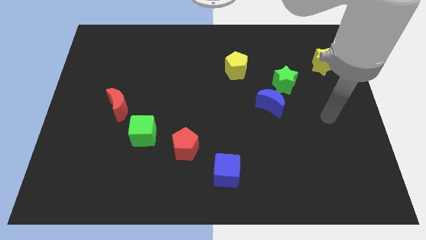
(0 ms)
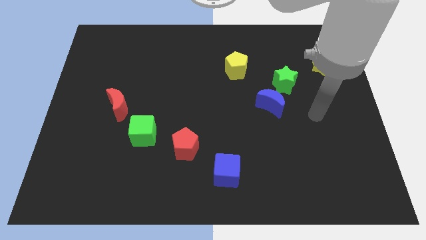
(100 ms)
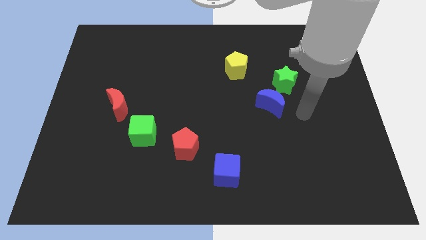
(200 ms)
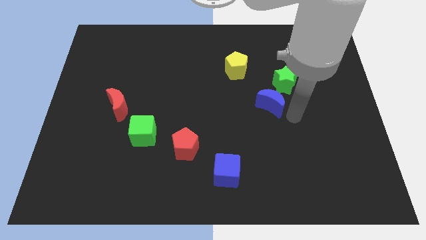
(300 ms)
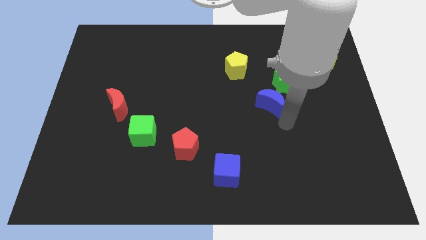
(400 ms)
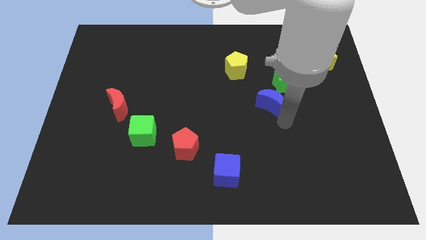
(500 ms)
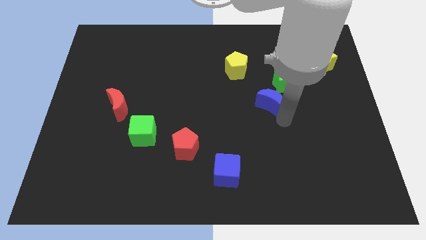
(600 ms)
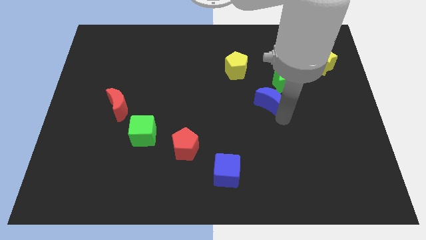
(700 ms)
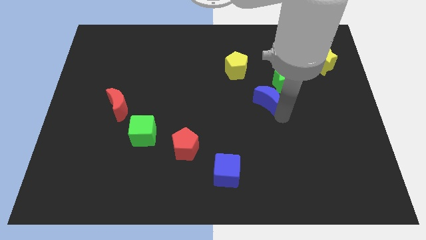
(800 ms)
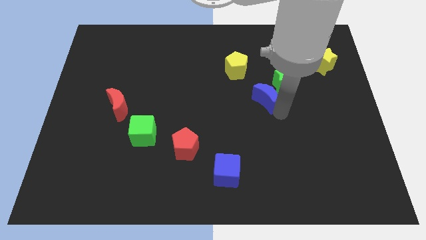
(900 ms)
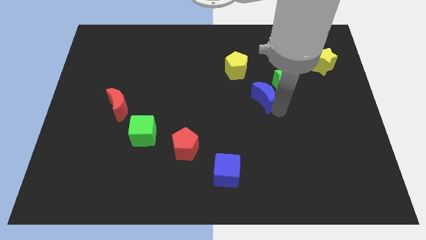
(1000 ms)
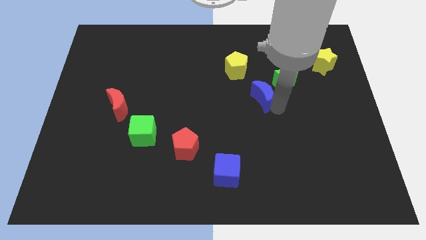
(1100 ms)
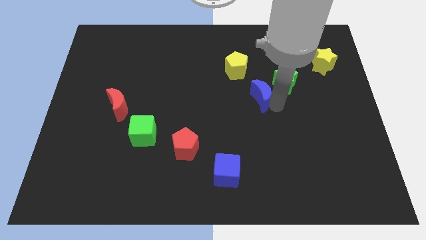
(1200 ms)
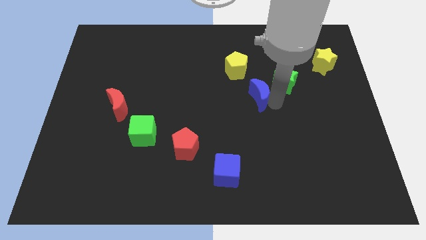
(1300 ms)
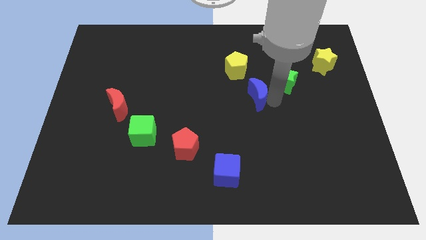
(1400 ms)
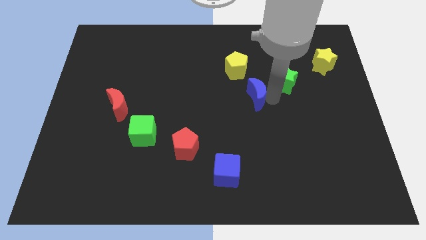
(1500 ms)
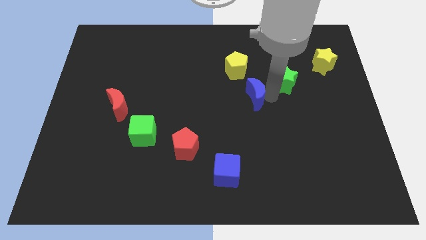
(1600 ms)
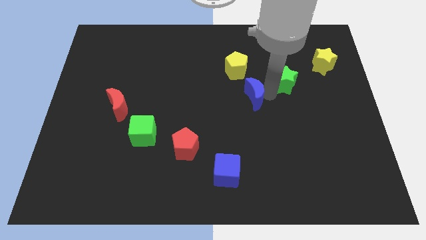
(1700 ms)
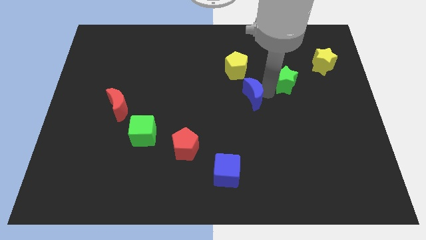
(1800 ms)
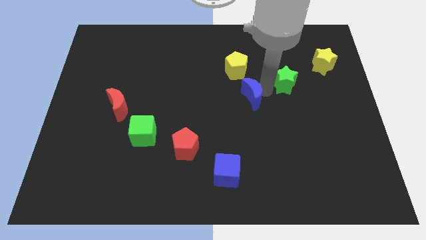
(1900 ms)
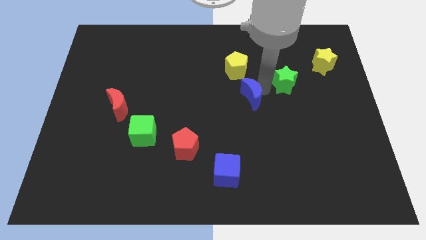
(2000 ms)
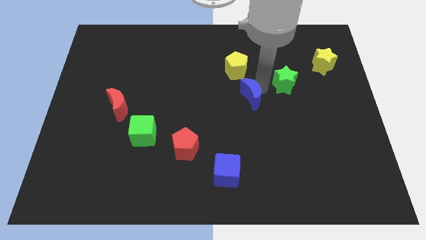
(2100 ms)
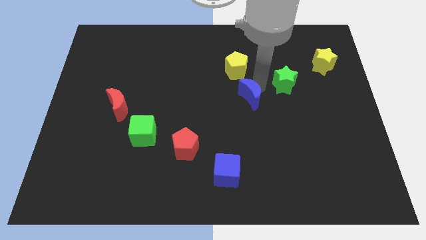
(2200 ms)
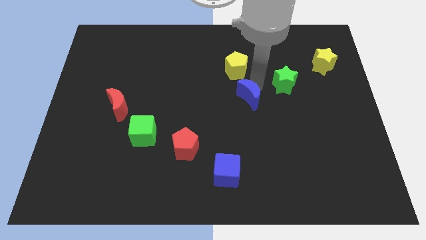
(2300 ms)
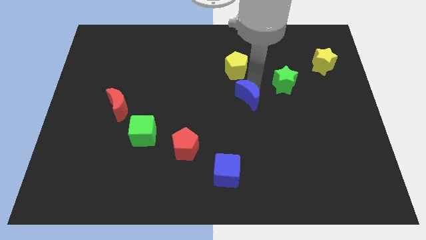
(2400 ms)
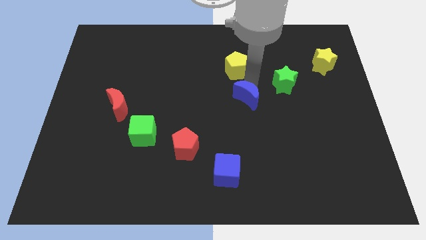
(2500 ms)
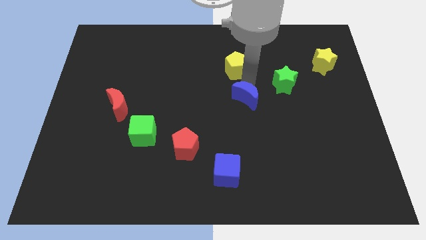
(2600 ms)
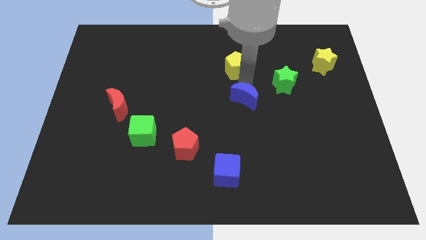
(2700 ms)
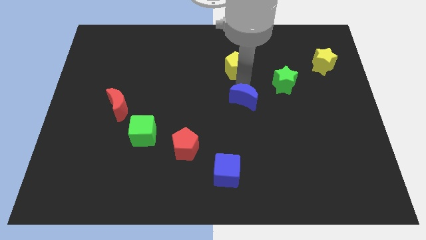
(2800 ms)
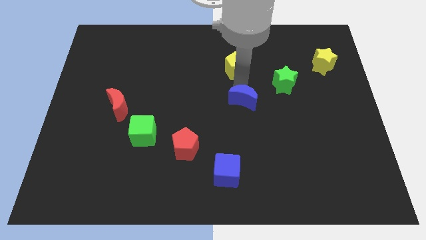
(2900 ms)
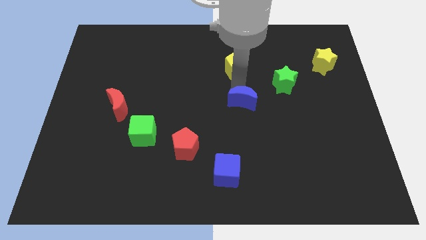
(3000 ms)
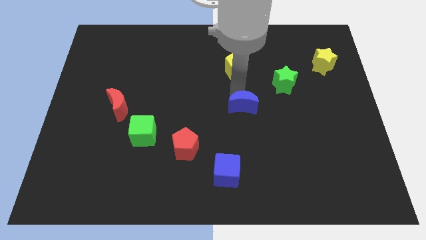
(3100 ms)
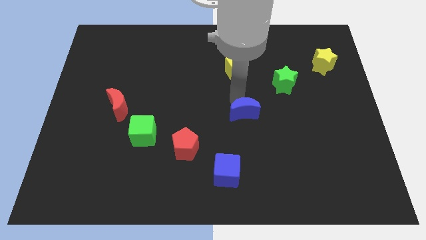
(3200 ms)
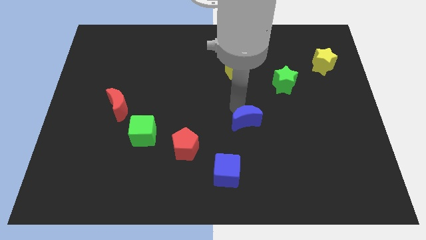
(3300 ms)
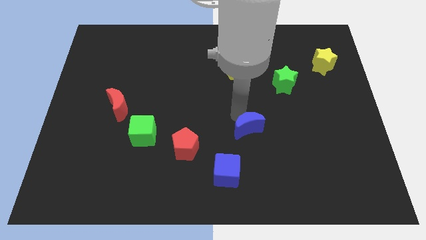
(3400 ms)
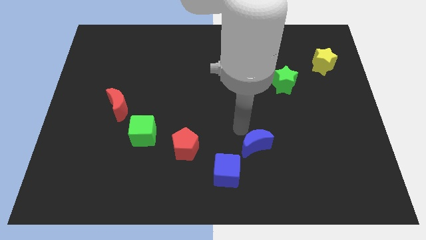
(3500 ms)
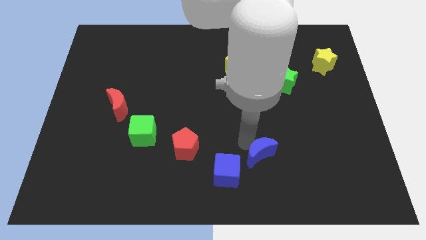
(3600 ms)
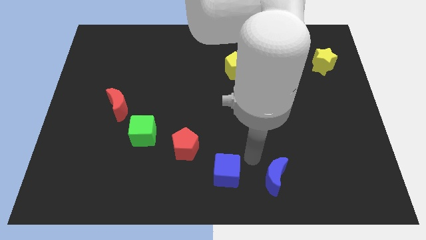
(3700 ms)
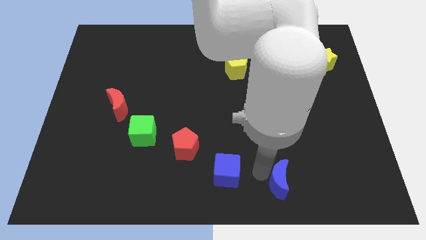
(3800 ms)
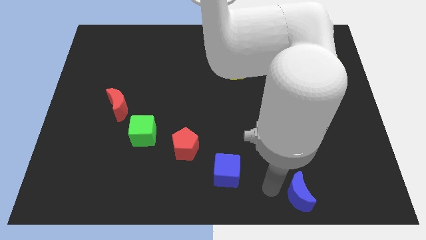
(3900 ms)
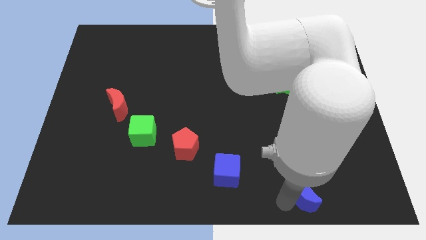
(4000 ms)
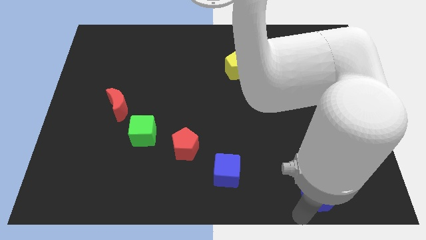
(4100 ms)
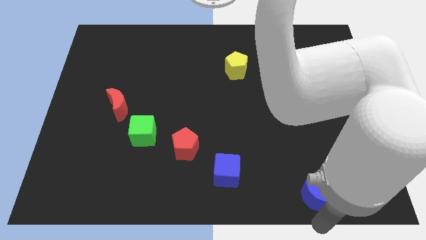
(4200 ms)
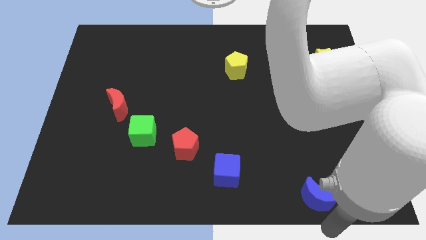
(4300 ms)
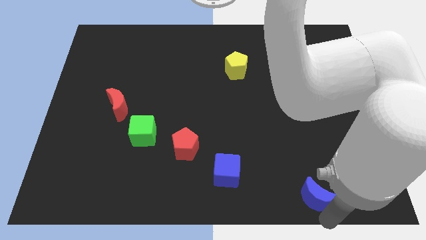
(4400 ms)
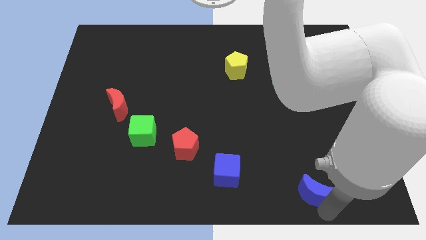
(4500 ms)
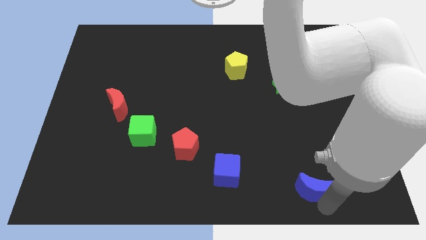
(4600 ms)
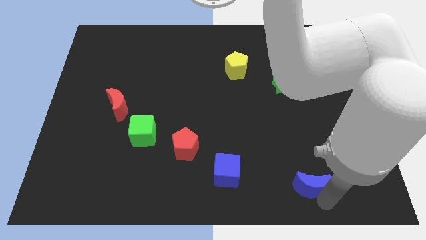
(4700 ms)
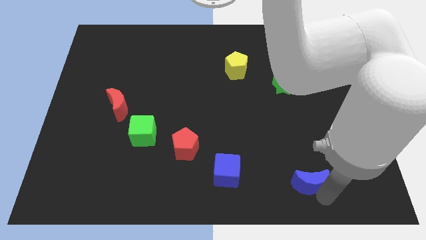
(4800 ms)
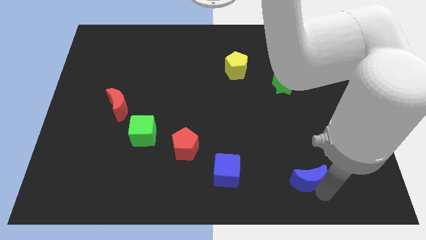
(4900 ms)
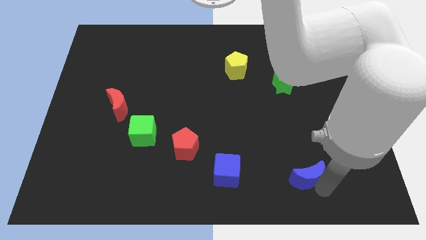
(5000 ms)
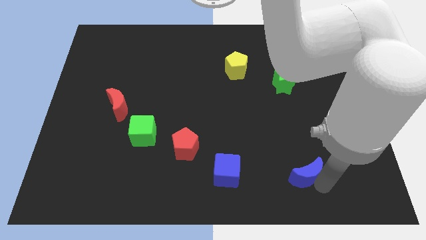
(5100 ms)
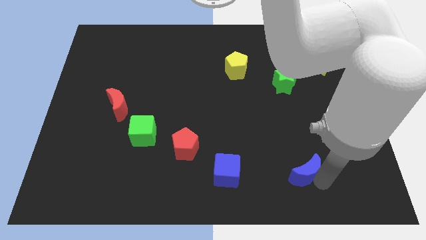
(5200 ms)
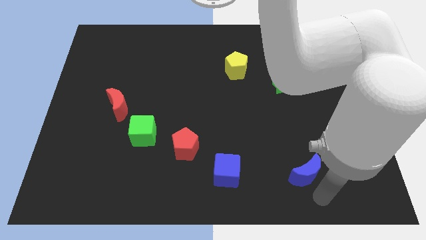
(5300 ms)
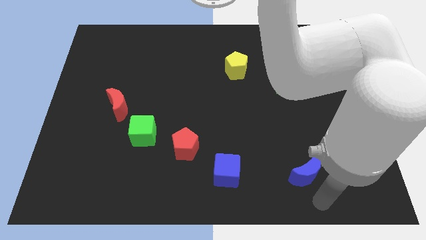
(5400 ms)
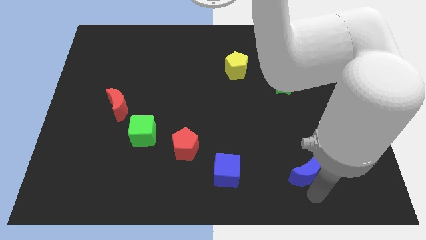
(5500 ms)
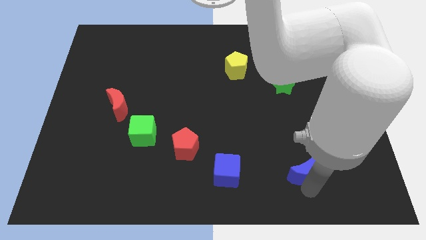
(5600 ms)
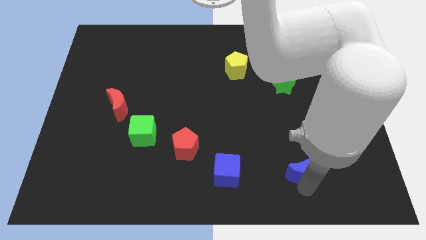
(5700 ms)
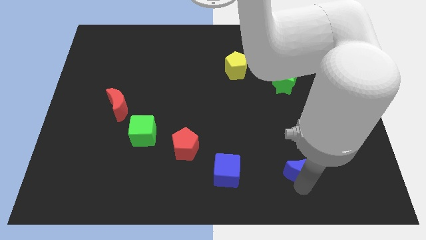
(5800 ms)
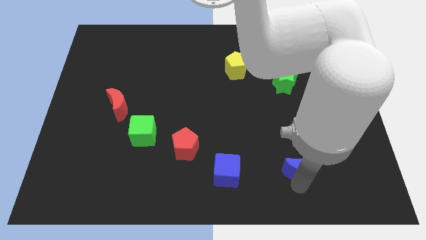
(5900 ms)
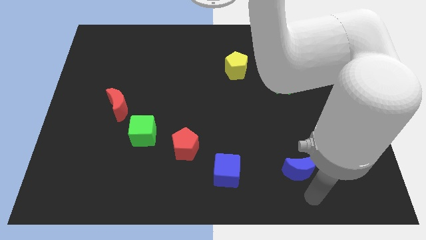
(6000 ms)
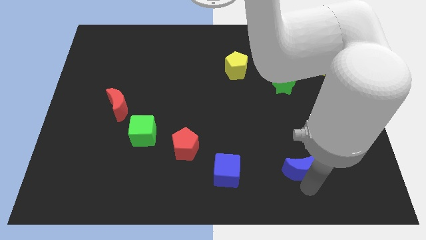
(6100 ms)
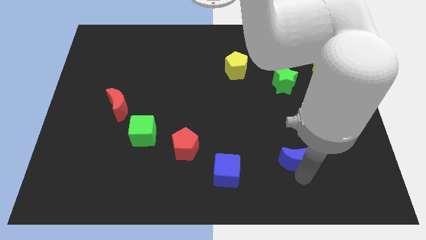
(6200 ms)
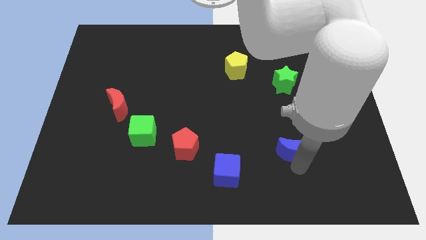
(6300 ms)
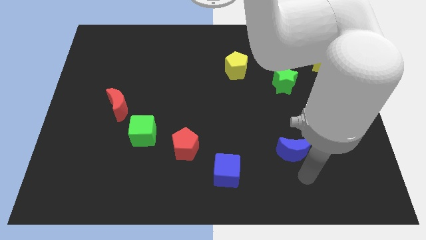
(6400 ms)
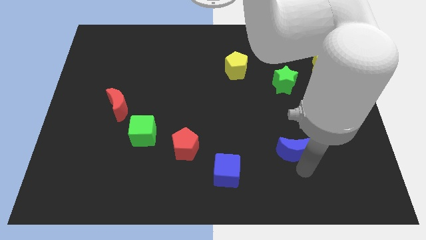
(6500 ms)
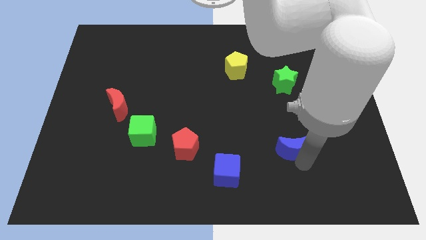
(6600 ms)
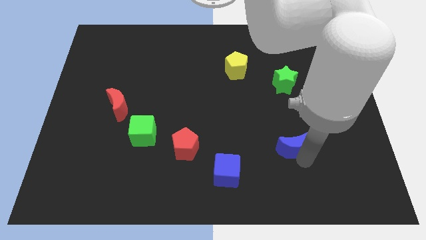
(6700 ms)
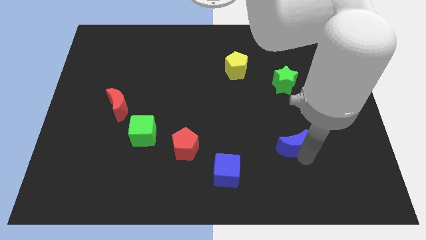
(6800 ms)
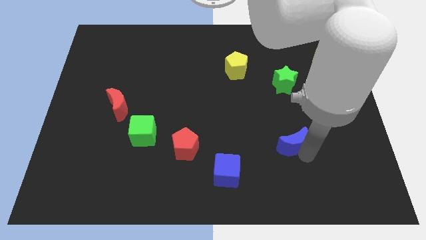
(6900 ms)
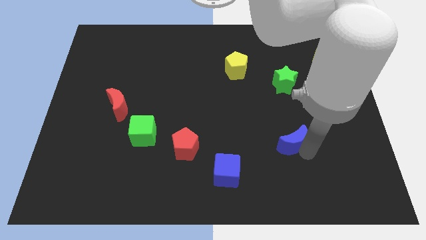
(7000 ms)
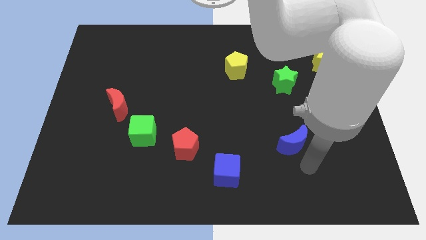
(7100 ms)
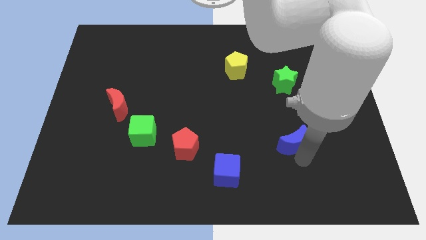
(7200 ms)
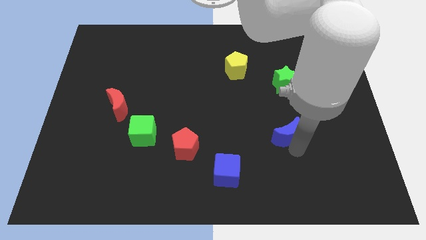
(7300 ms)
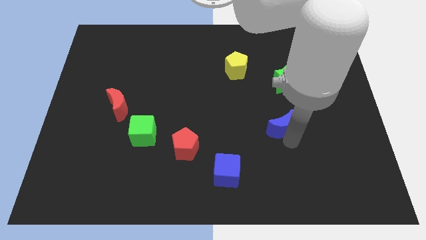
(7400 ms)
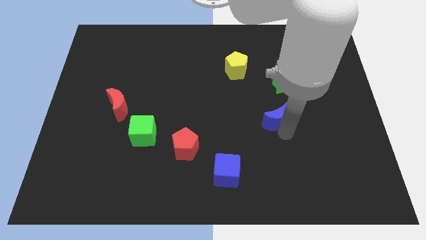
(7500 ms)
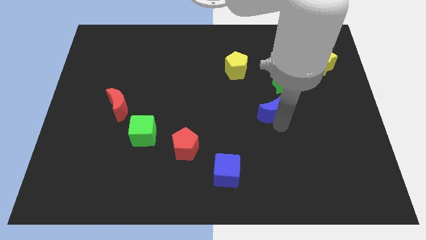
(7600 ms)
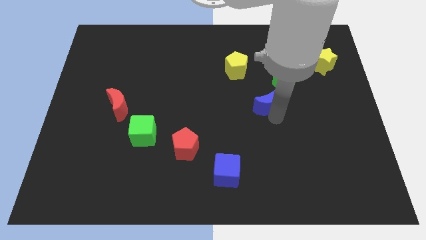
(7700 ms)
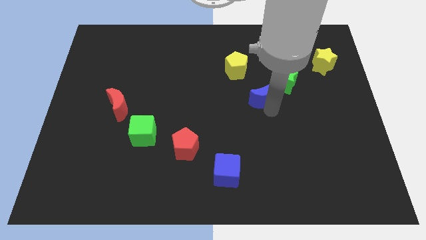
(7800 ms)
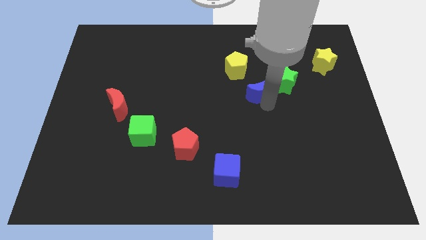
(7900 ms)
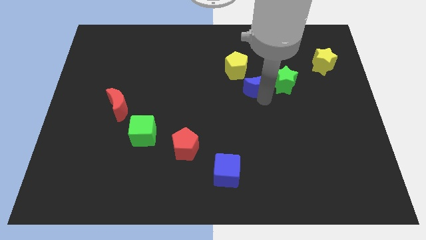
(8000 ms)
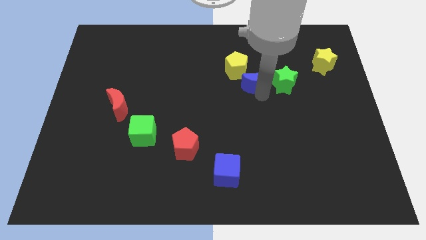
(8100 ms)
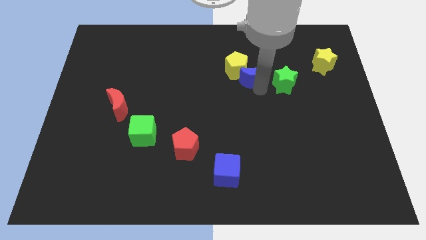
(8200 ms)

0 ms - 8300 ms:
put the blue moon next to the yellow pentagon
